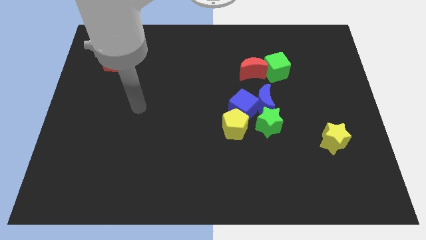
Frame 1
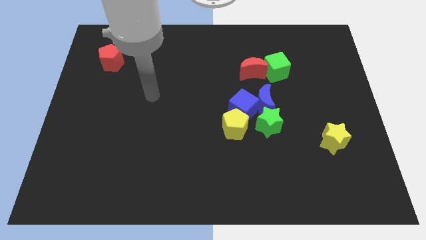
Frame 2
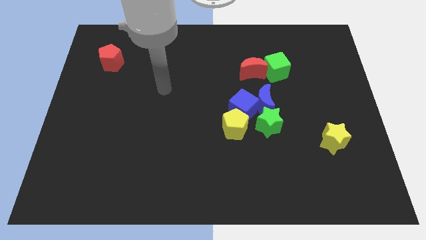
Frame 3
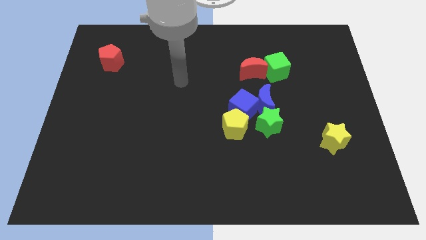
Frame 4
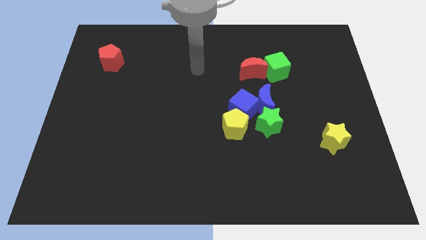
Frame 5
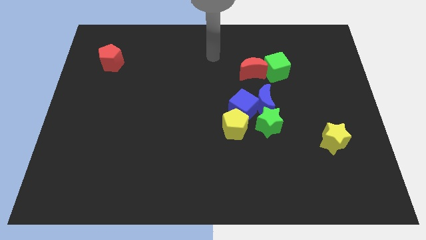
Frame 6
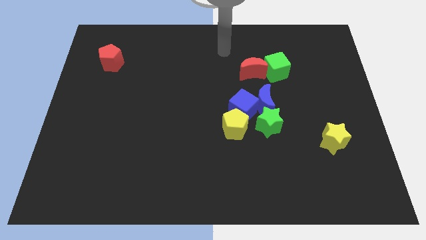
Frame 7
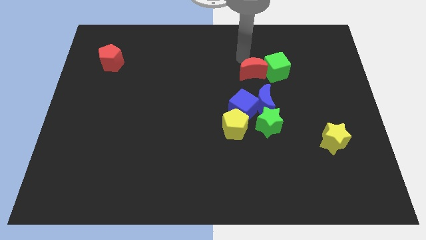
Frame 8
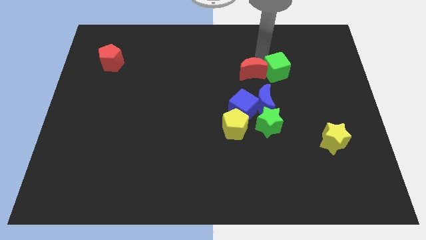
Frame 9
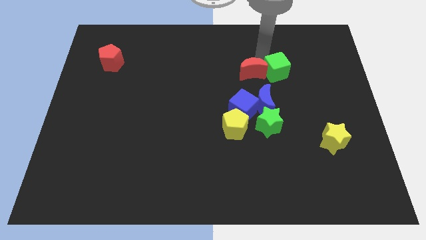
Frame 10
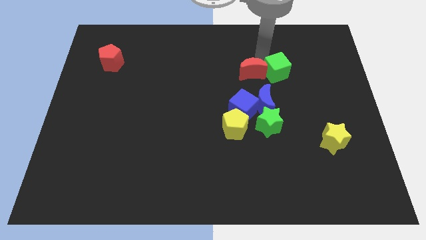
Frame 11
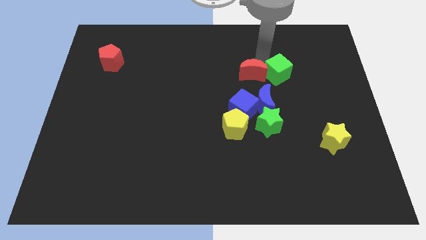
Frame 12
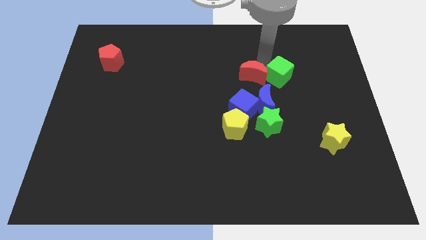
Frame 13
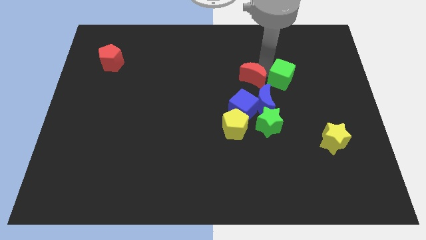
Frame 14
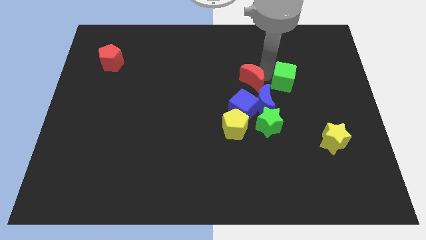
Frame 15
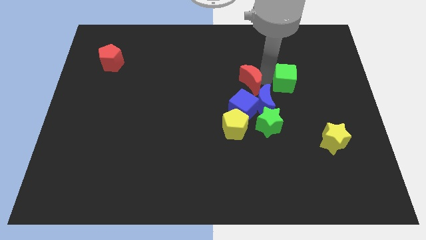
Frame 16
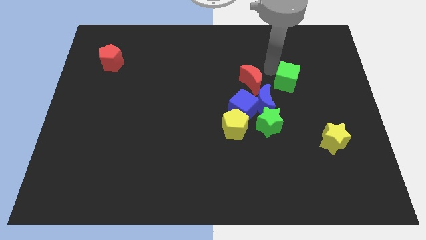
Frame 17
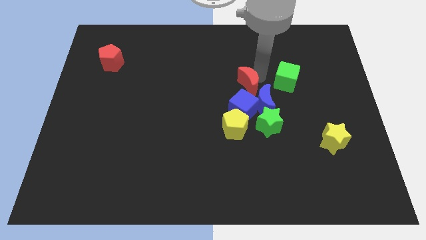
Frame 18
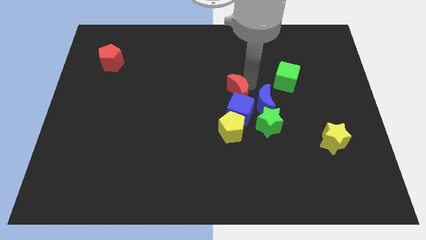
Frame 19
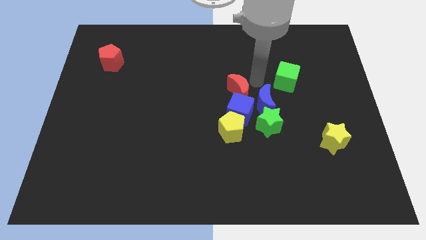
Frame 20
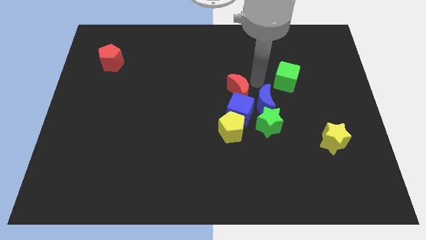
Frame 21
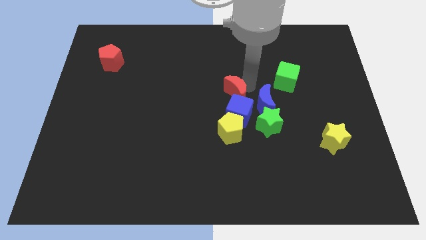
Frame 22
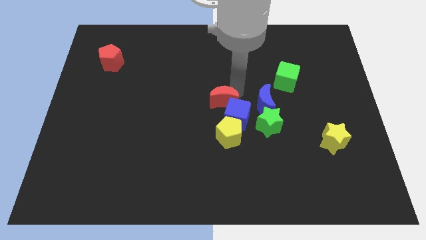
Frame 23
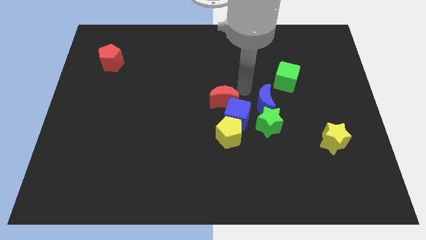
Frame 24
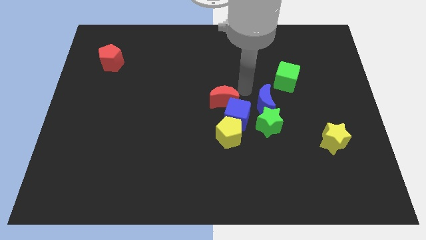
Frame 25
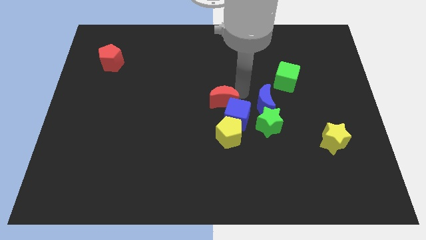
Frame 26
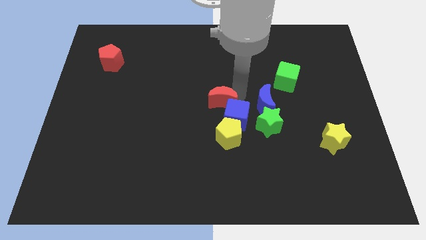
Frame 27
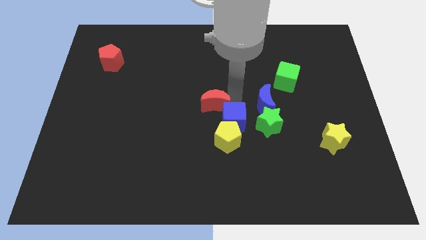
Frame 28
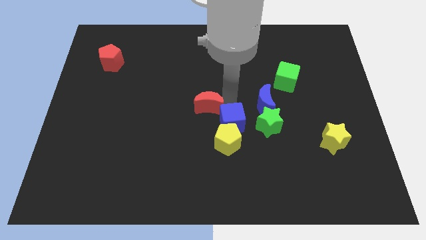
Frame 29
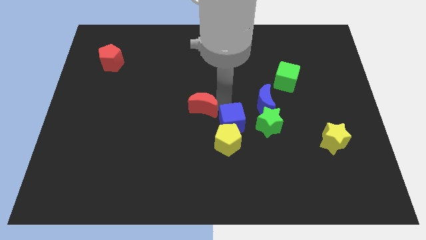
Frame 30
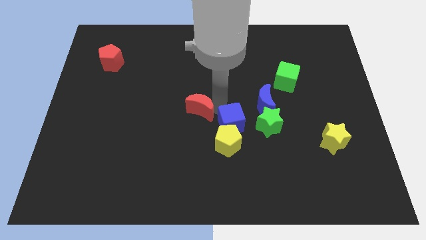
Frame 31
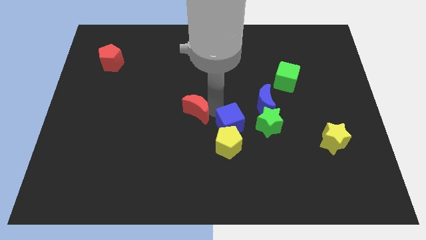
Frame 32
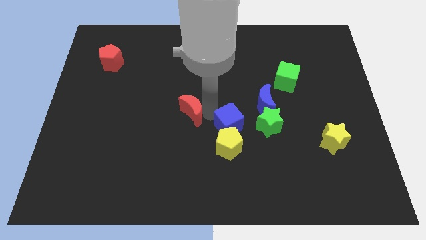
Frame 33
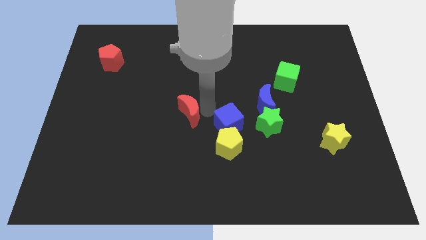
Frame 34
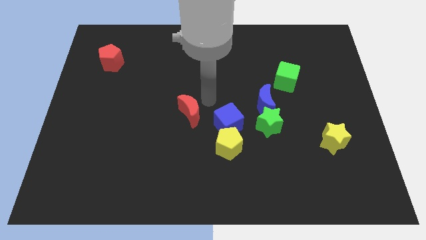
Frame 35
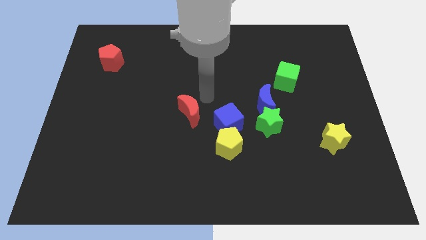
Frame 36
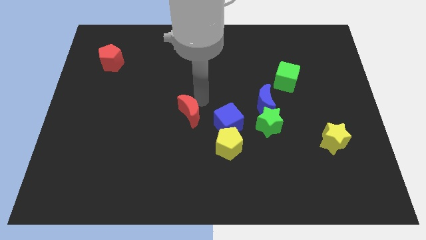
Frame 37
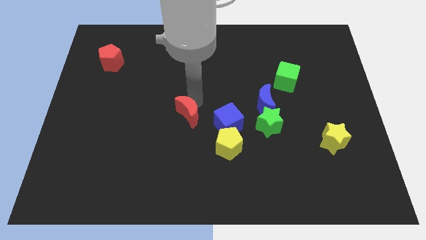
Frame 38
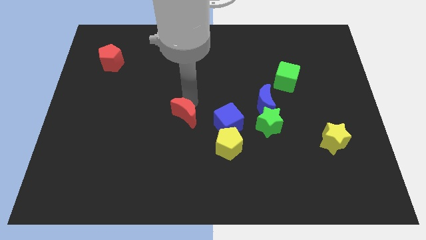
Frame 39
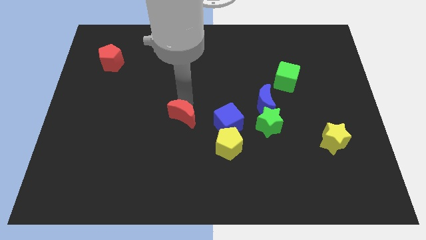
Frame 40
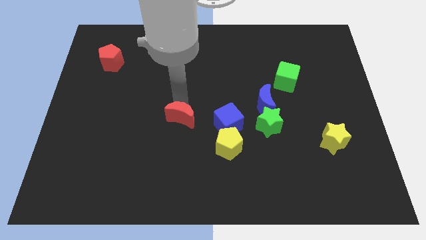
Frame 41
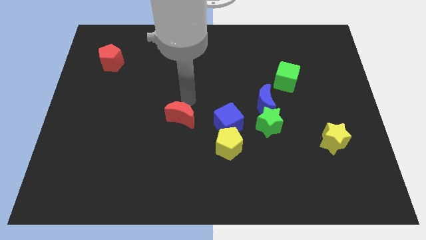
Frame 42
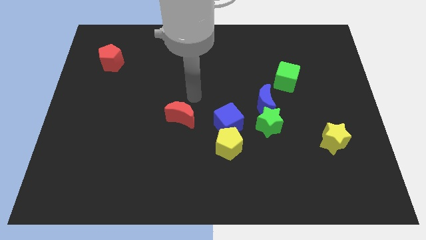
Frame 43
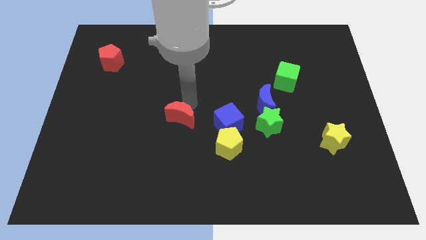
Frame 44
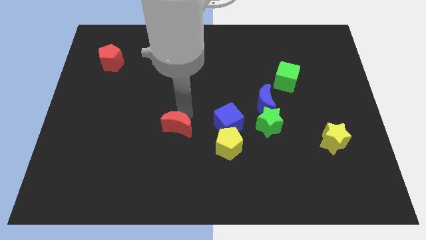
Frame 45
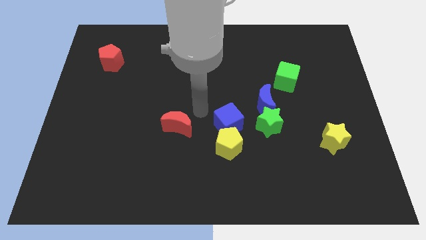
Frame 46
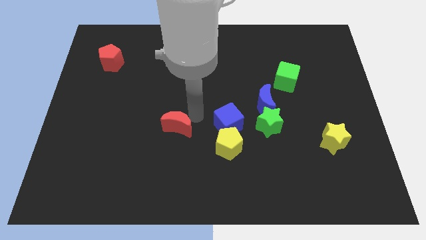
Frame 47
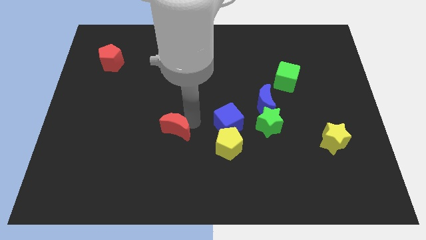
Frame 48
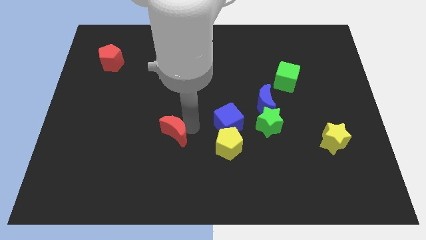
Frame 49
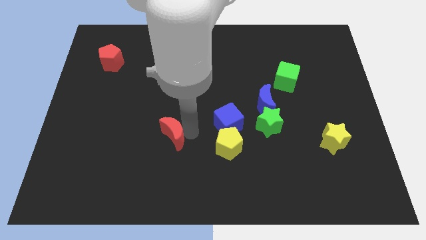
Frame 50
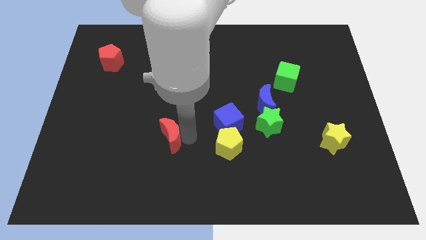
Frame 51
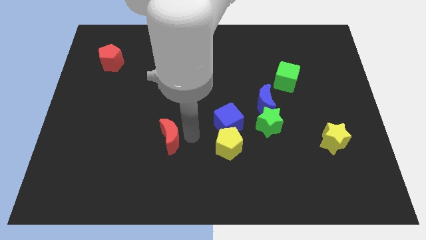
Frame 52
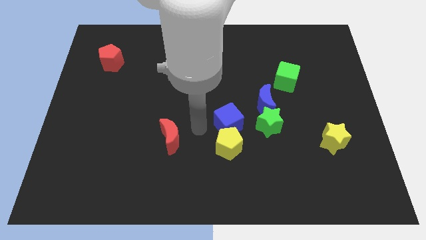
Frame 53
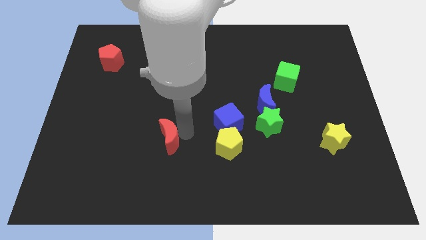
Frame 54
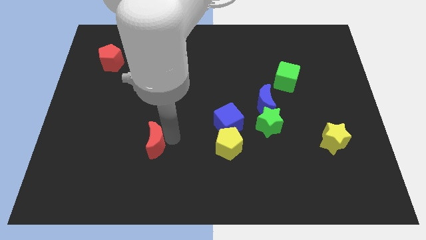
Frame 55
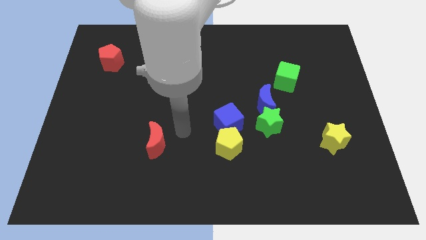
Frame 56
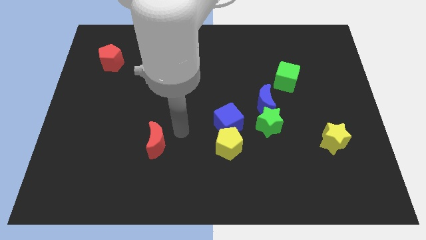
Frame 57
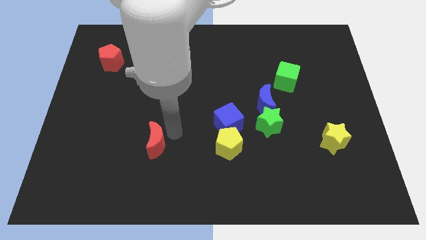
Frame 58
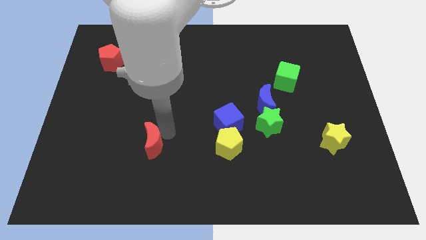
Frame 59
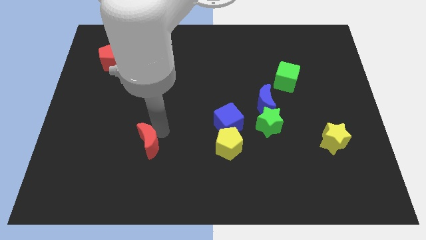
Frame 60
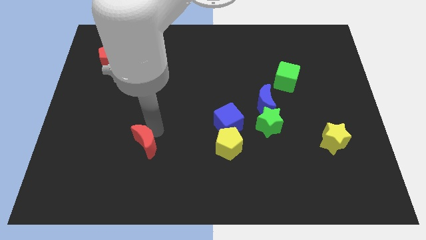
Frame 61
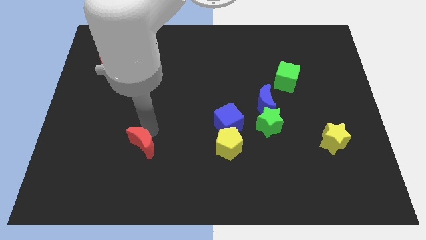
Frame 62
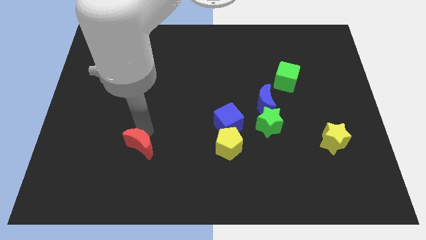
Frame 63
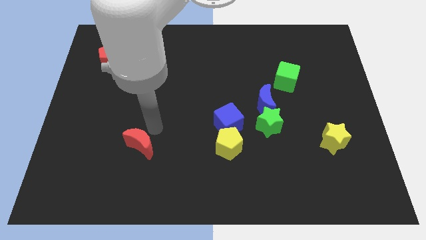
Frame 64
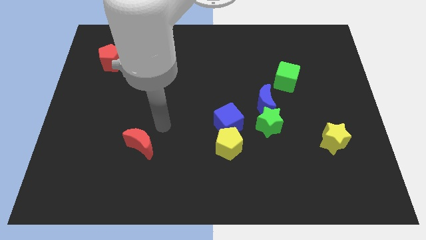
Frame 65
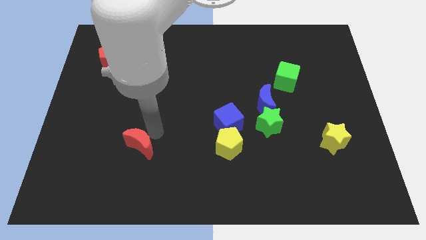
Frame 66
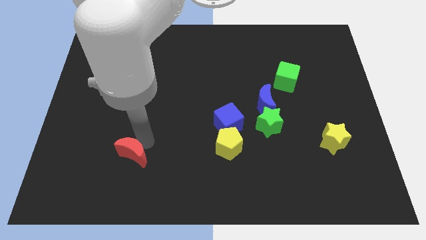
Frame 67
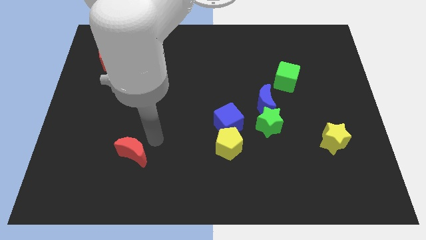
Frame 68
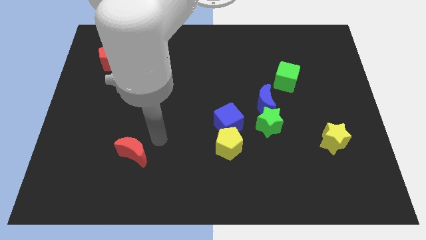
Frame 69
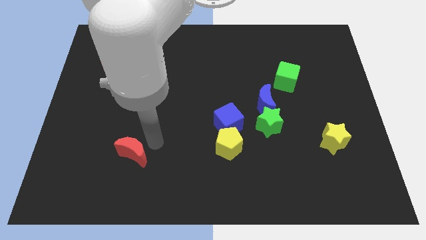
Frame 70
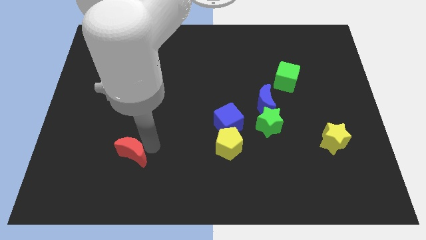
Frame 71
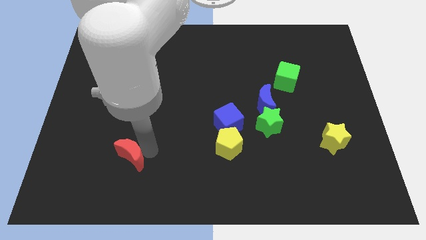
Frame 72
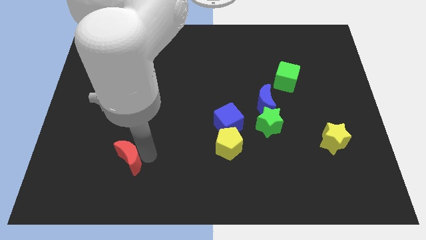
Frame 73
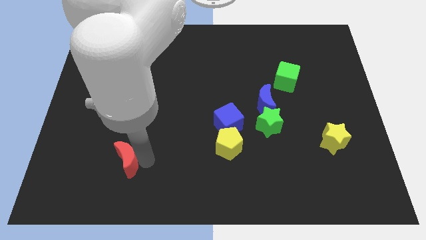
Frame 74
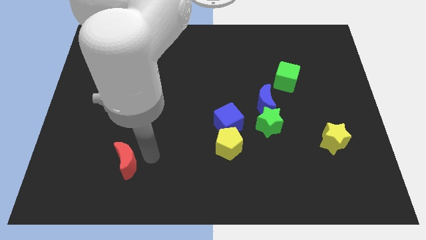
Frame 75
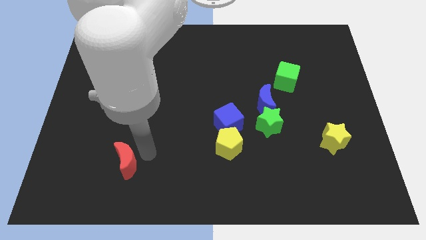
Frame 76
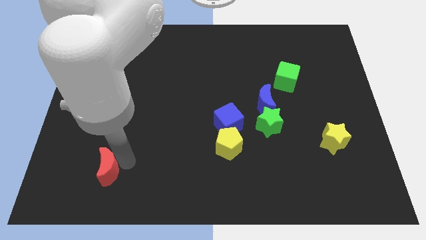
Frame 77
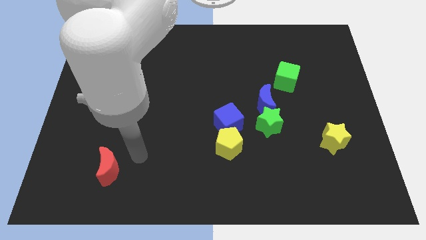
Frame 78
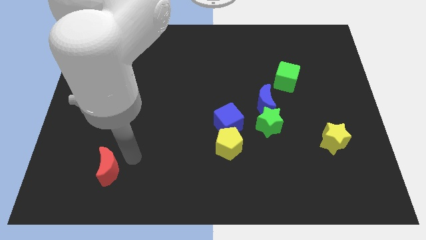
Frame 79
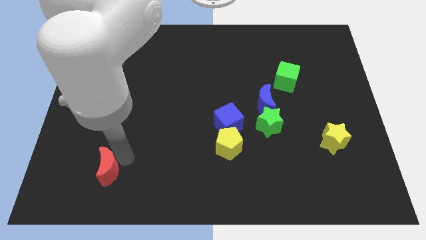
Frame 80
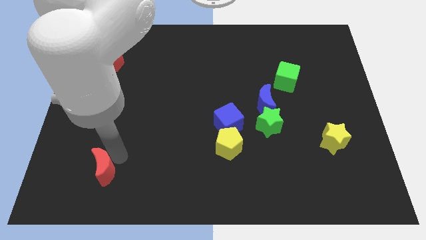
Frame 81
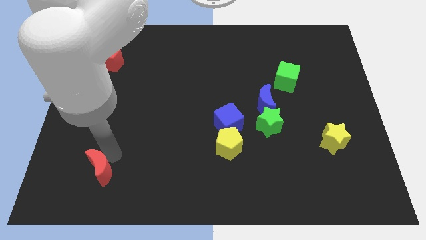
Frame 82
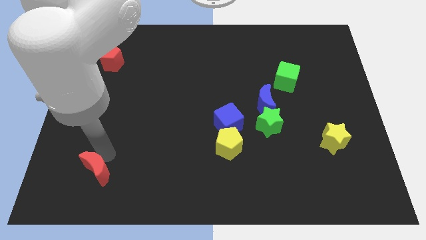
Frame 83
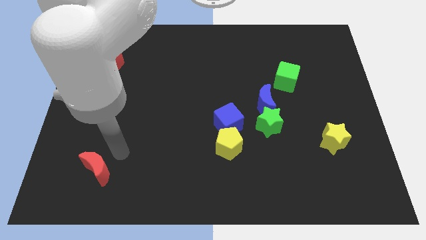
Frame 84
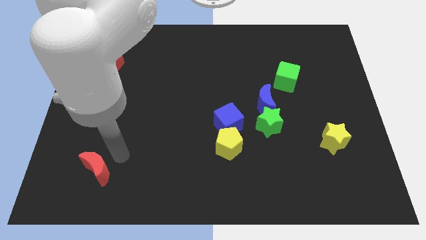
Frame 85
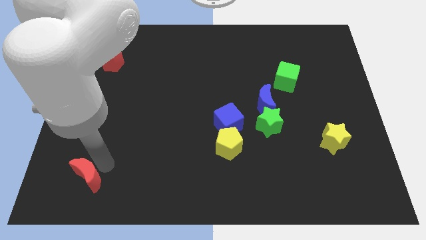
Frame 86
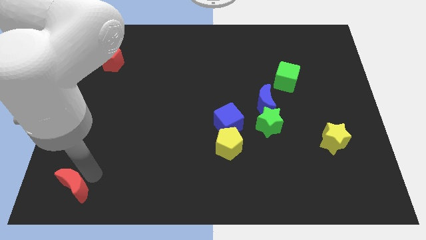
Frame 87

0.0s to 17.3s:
push the red moon to the bottom left
